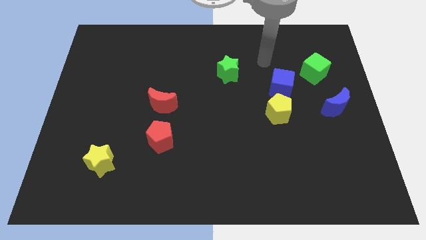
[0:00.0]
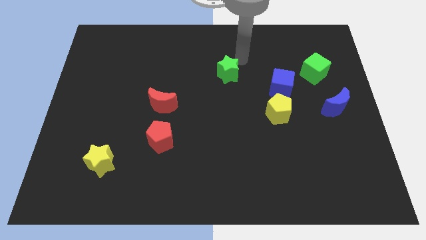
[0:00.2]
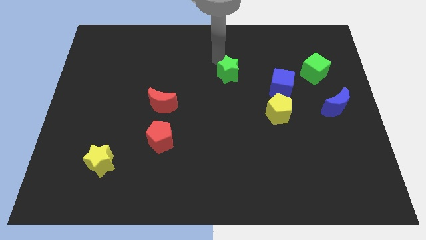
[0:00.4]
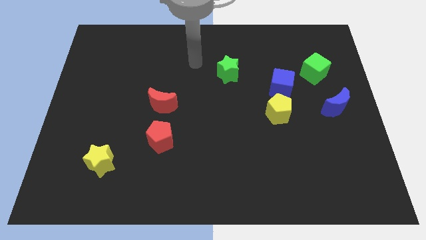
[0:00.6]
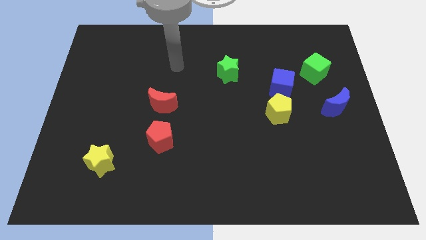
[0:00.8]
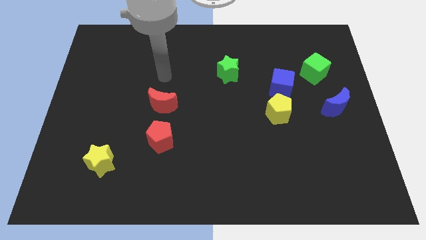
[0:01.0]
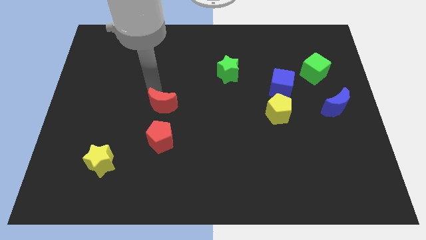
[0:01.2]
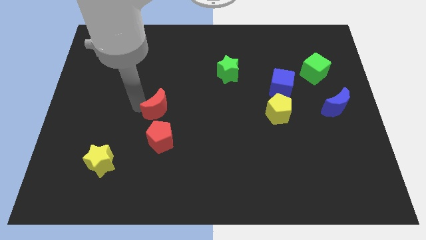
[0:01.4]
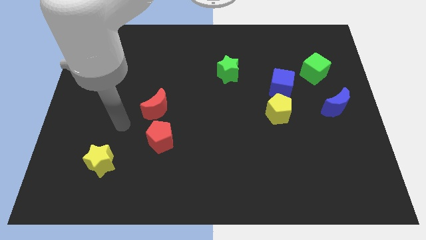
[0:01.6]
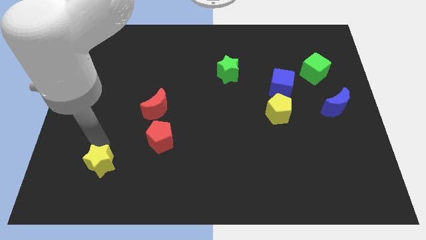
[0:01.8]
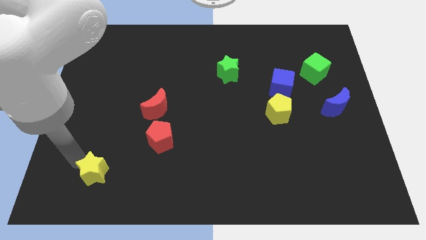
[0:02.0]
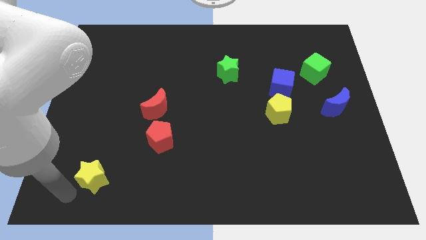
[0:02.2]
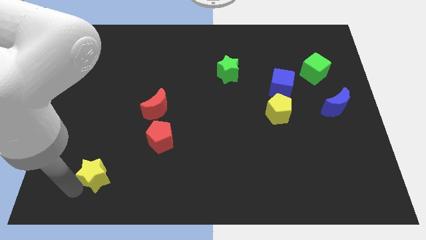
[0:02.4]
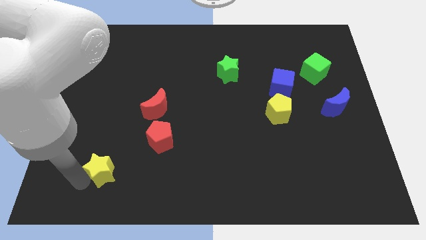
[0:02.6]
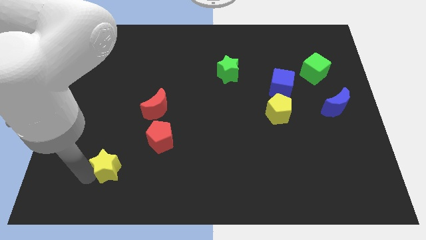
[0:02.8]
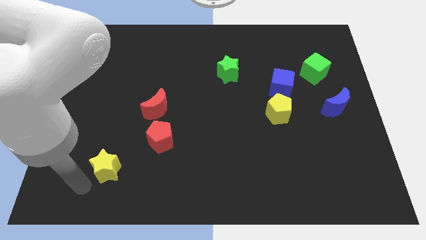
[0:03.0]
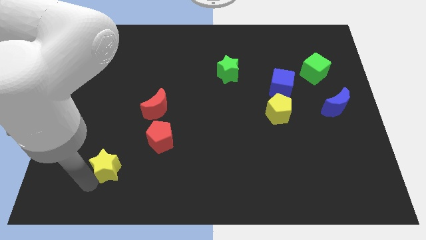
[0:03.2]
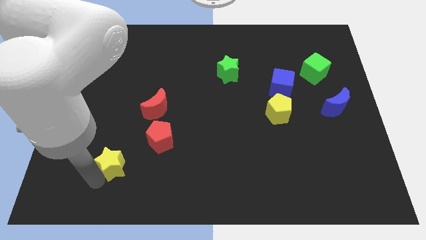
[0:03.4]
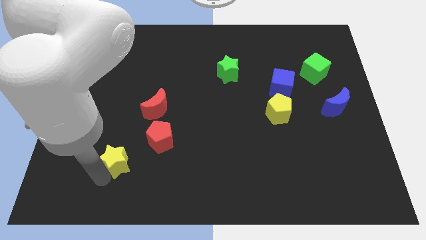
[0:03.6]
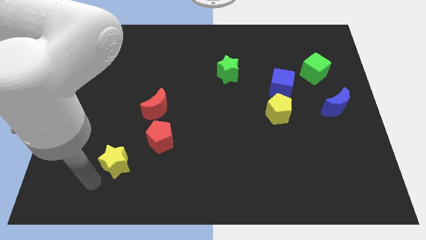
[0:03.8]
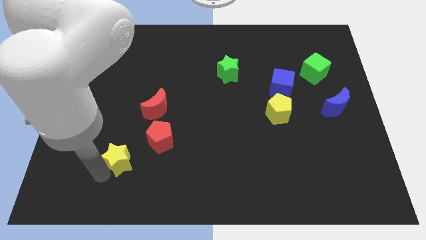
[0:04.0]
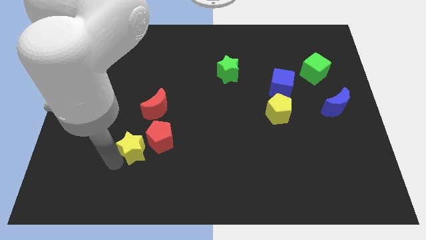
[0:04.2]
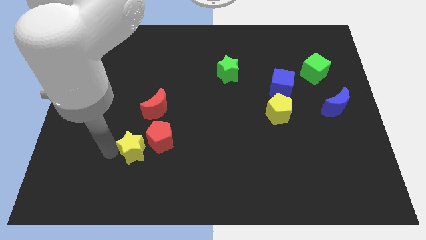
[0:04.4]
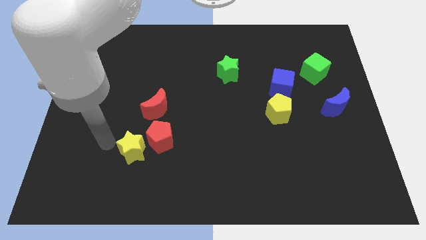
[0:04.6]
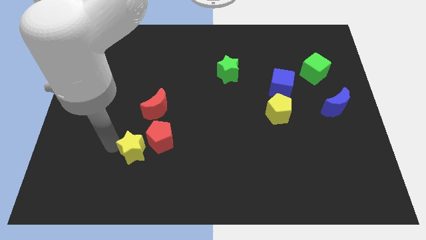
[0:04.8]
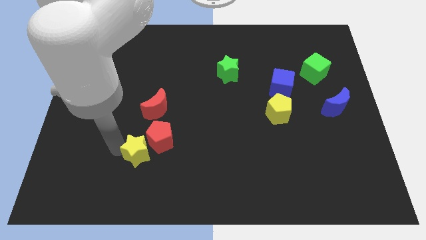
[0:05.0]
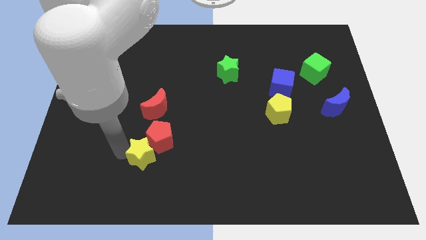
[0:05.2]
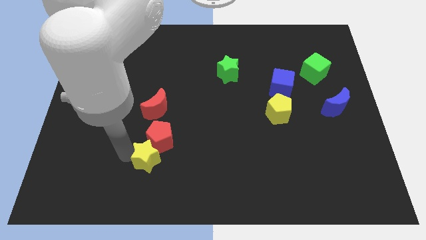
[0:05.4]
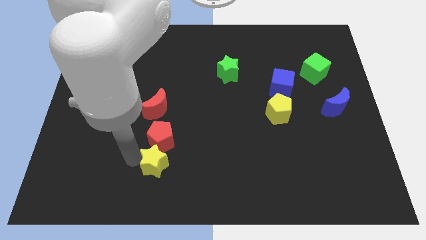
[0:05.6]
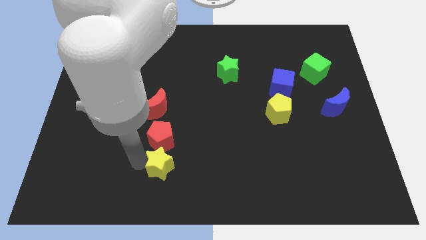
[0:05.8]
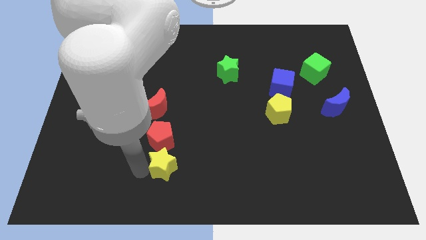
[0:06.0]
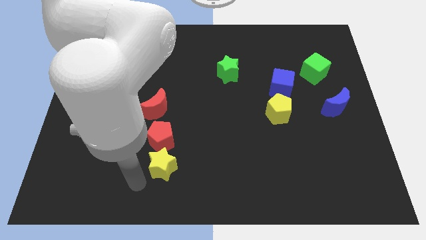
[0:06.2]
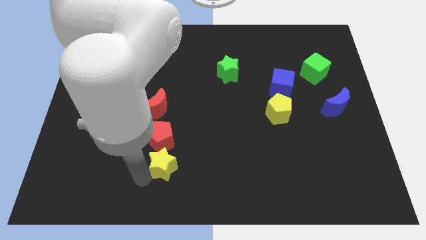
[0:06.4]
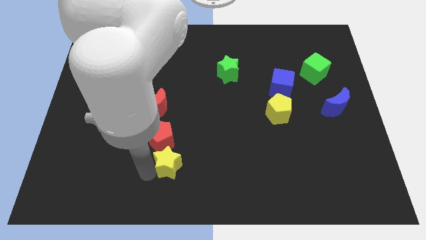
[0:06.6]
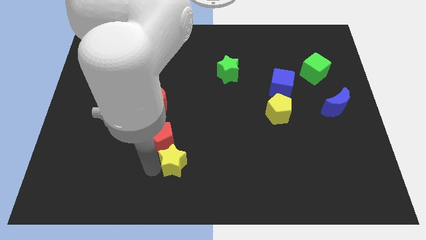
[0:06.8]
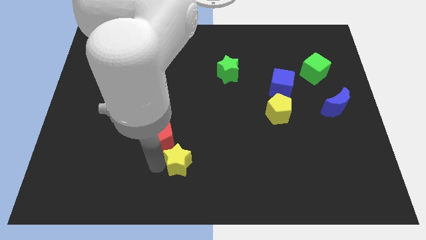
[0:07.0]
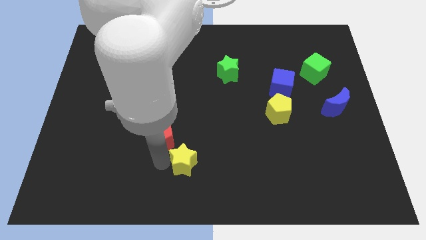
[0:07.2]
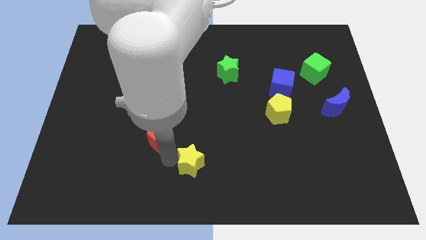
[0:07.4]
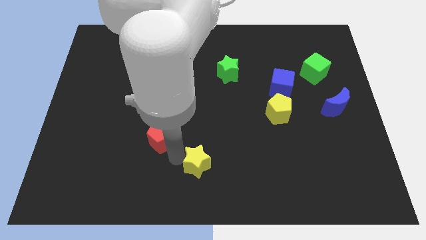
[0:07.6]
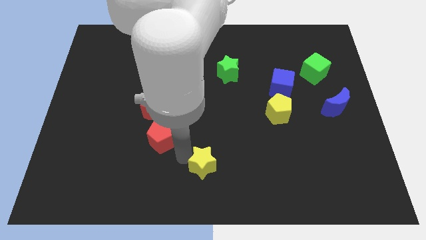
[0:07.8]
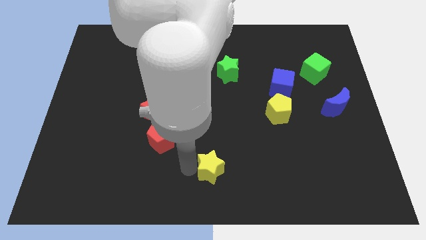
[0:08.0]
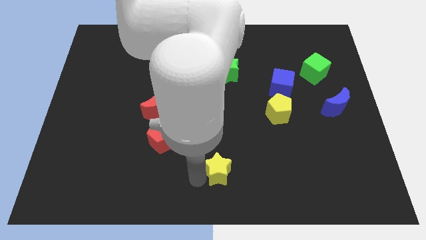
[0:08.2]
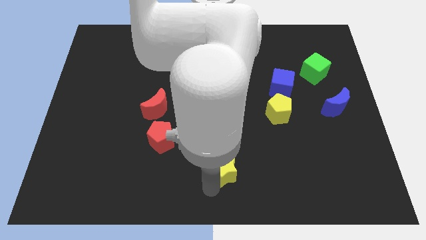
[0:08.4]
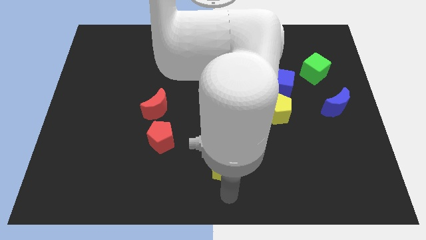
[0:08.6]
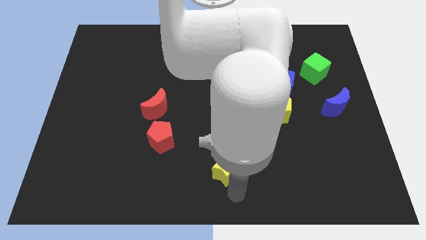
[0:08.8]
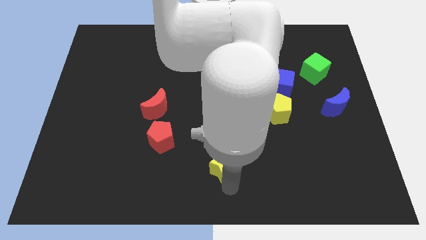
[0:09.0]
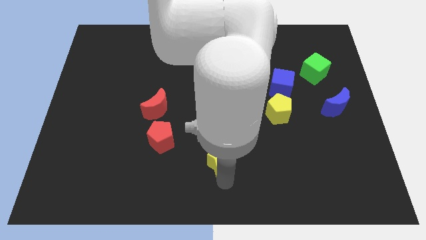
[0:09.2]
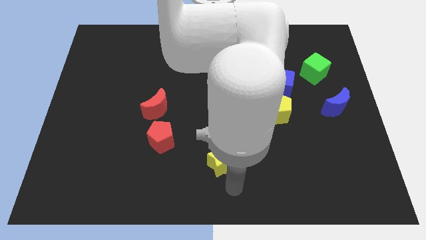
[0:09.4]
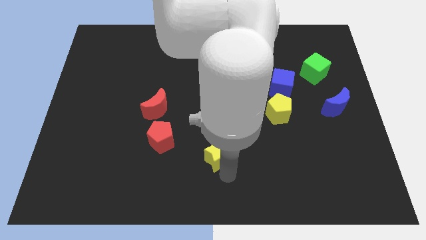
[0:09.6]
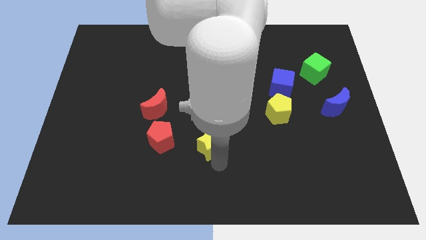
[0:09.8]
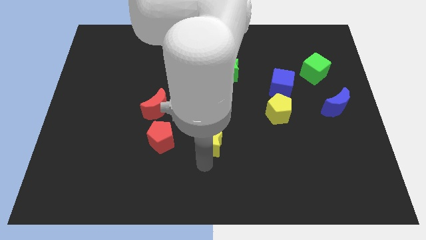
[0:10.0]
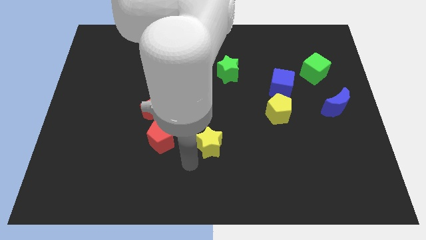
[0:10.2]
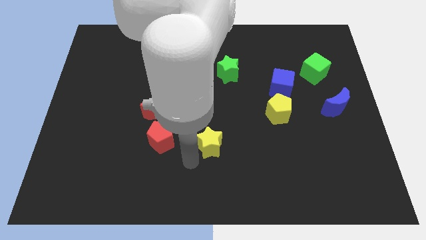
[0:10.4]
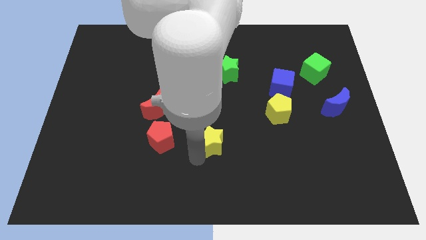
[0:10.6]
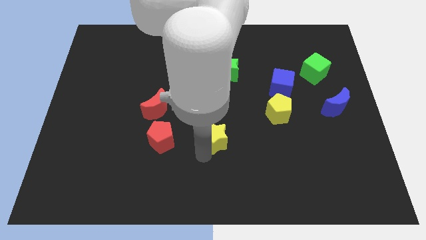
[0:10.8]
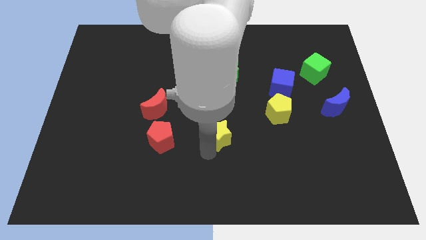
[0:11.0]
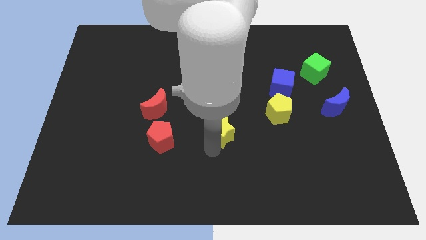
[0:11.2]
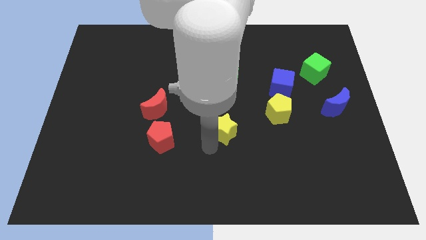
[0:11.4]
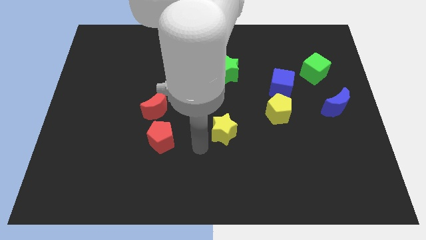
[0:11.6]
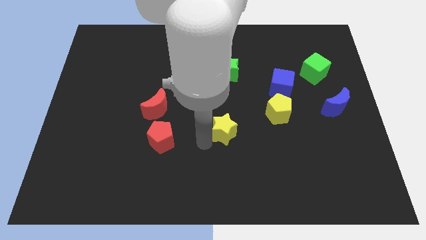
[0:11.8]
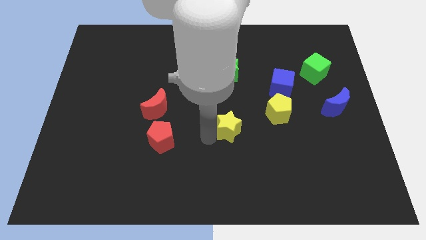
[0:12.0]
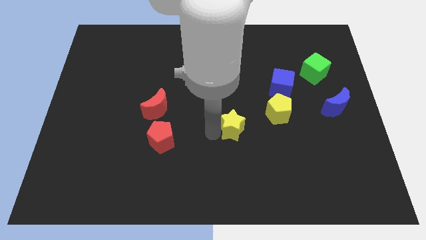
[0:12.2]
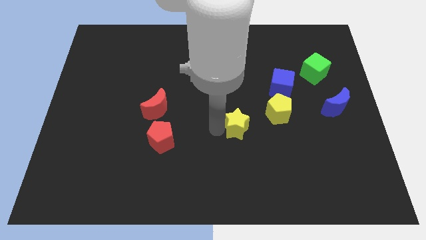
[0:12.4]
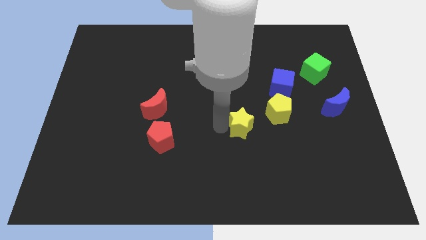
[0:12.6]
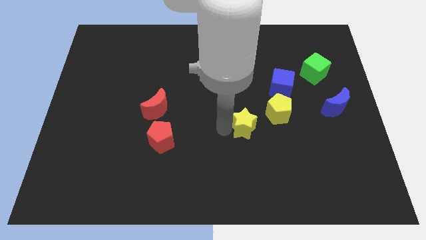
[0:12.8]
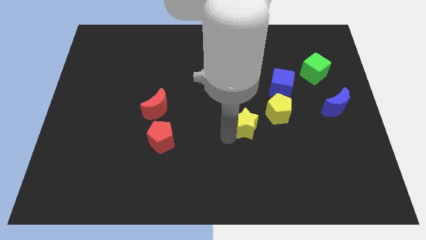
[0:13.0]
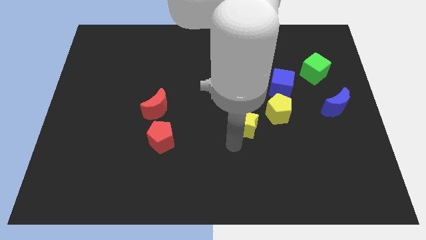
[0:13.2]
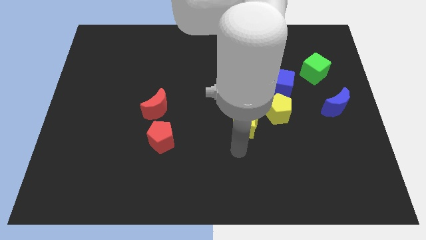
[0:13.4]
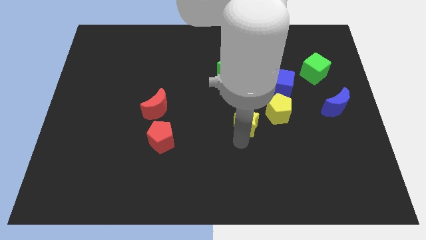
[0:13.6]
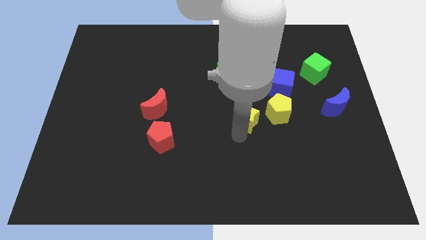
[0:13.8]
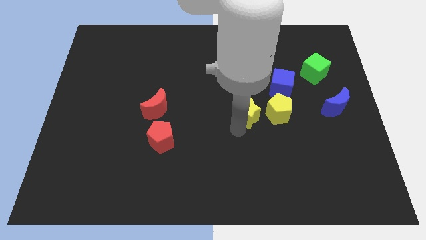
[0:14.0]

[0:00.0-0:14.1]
slide the yellow star to the bottom left side of the blue cube
